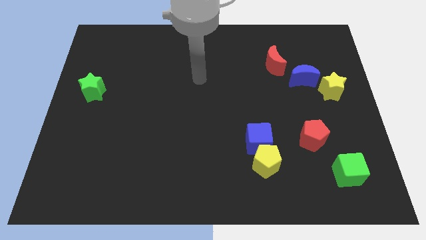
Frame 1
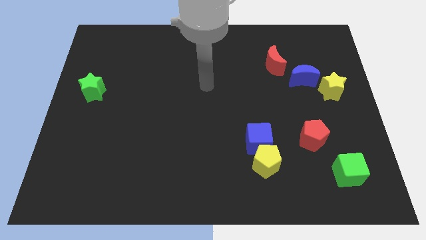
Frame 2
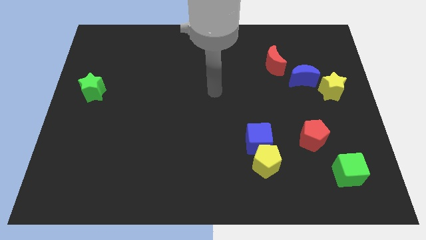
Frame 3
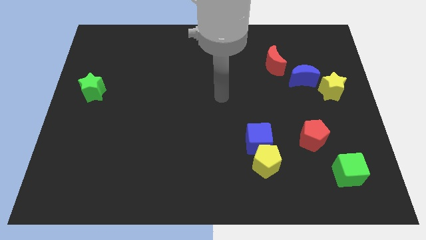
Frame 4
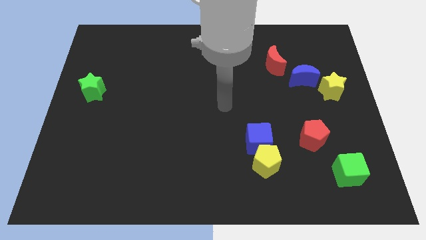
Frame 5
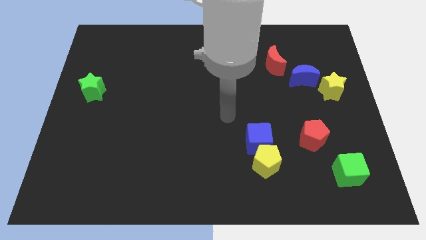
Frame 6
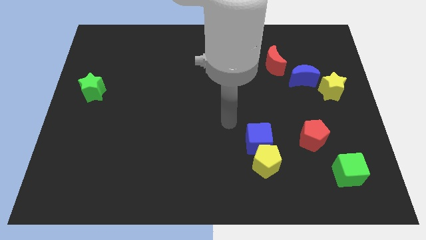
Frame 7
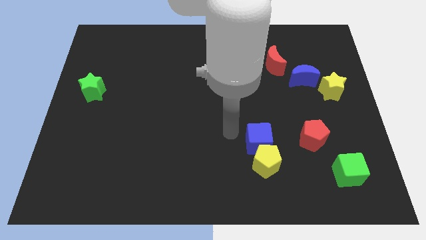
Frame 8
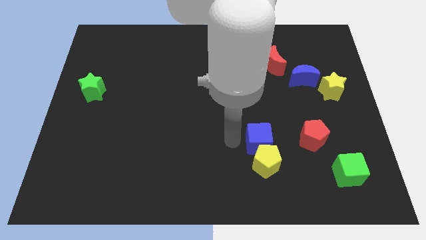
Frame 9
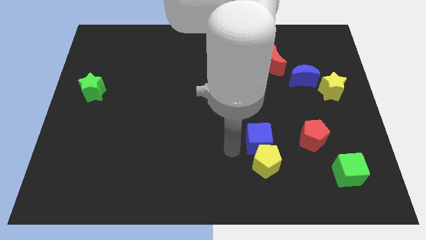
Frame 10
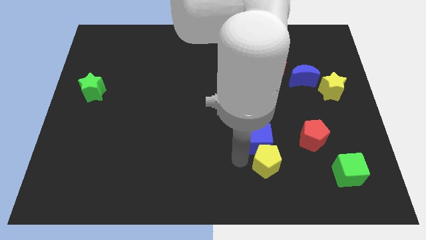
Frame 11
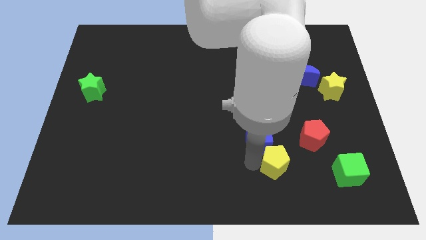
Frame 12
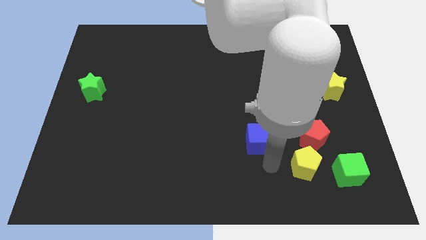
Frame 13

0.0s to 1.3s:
pull the blue cube apart from the yellow pentagon

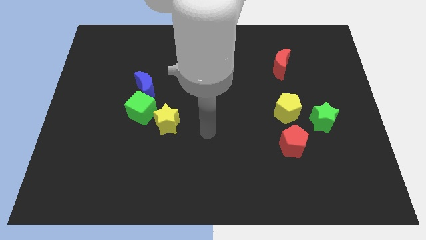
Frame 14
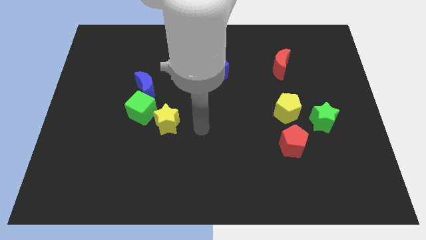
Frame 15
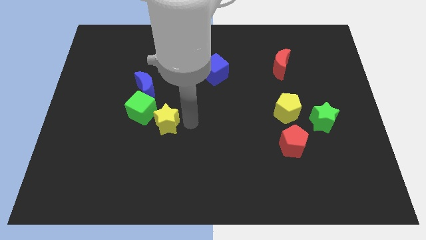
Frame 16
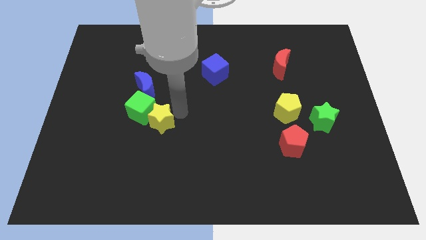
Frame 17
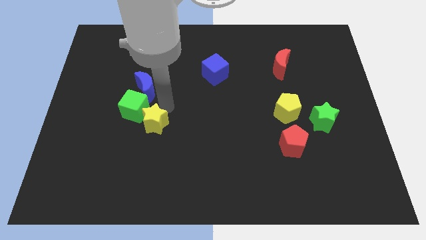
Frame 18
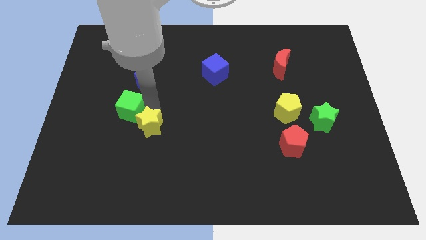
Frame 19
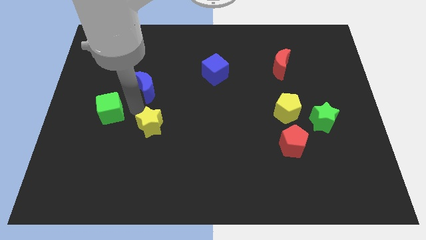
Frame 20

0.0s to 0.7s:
move the blue moon away from the green cube

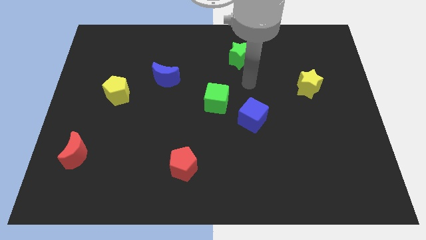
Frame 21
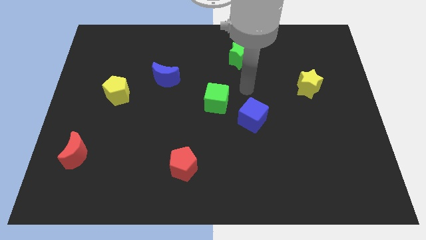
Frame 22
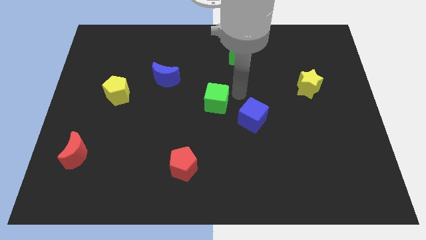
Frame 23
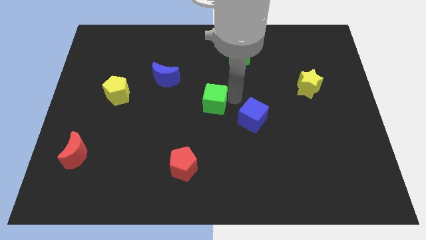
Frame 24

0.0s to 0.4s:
pull the blue cube apart from the green cube

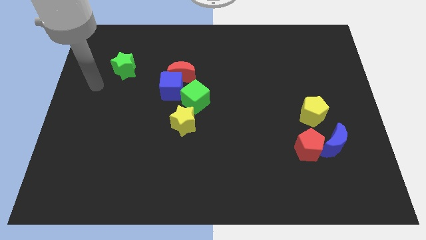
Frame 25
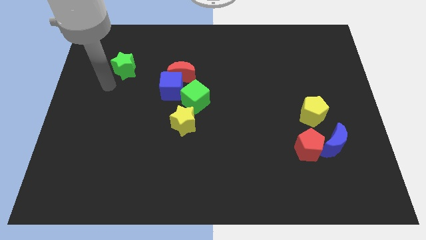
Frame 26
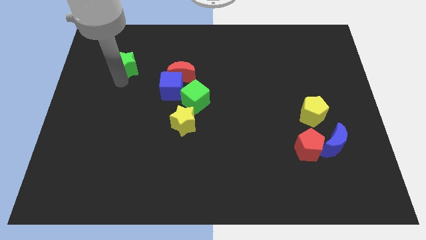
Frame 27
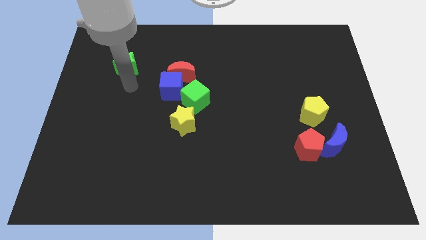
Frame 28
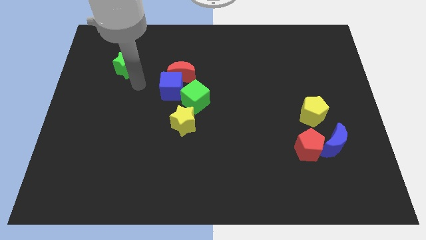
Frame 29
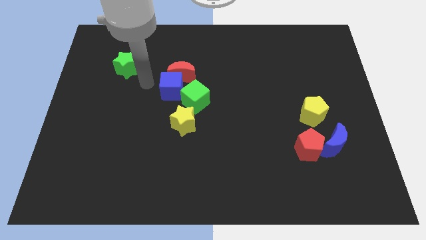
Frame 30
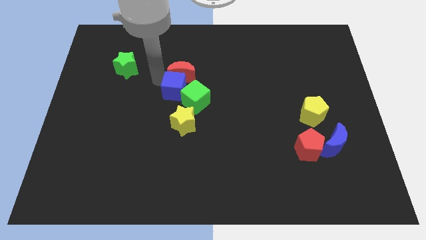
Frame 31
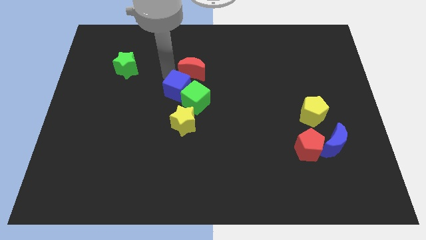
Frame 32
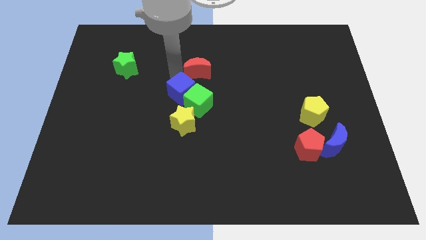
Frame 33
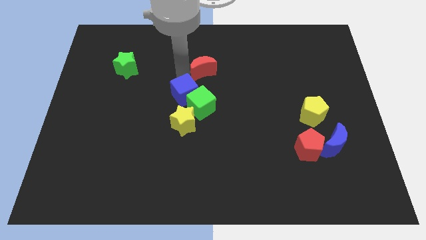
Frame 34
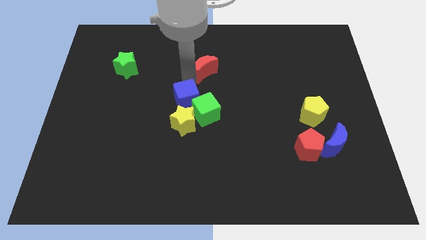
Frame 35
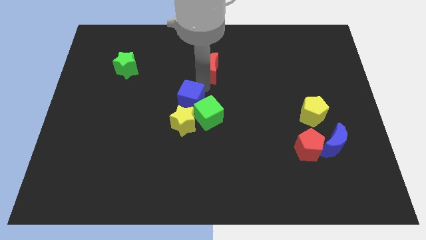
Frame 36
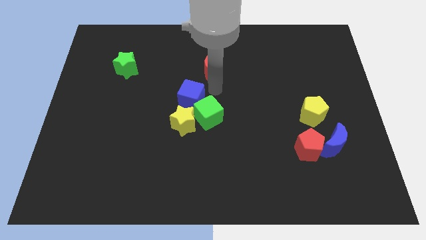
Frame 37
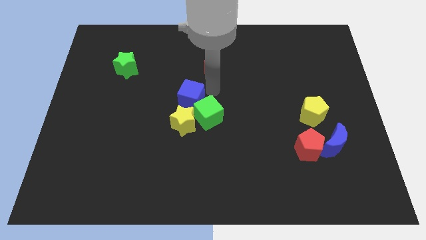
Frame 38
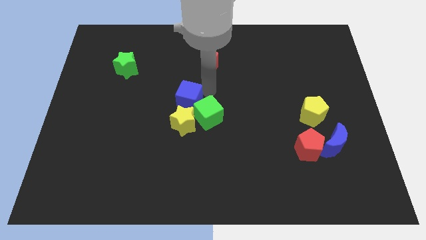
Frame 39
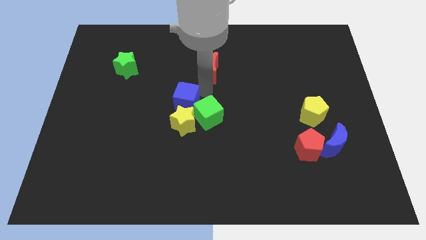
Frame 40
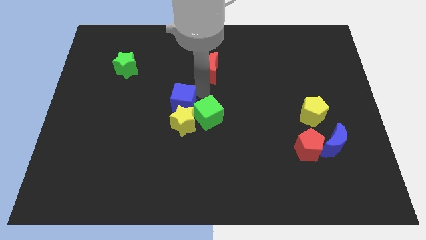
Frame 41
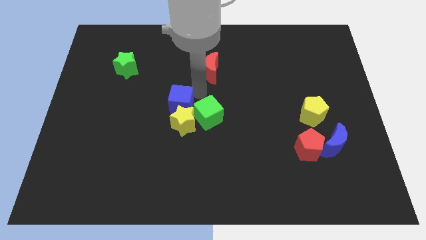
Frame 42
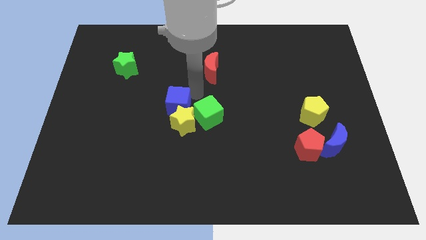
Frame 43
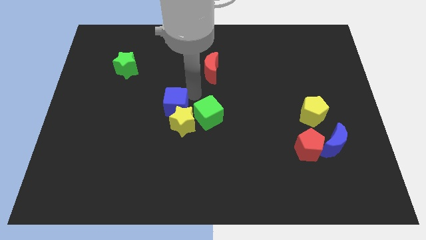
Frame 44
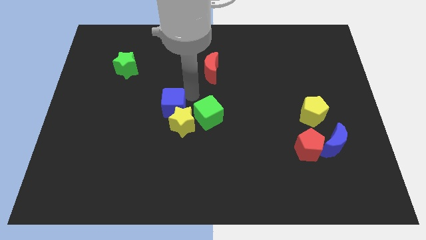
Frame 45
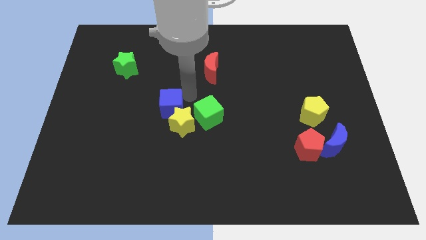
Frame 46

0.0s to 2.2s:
separate the blue cube from the red moon and green cube

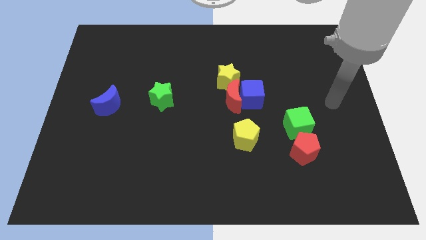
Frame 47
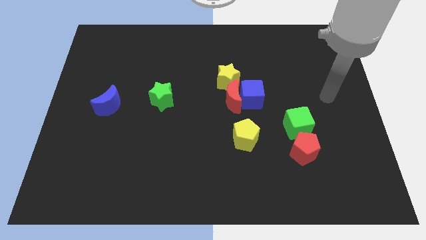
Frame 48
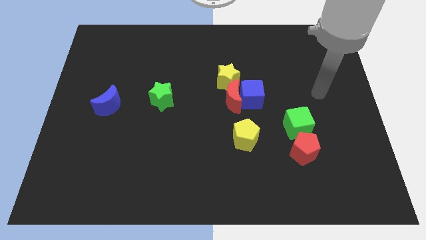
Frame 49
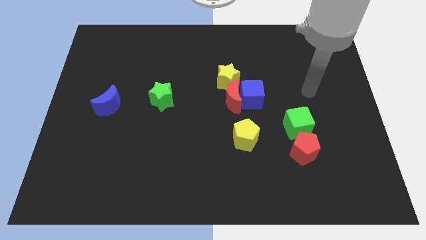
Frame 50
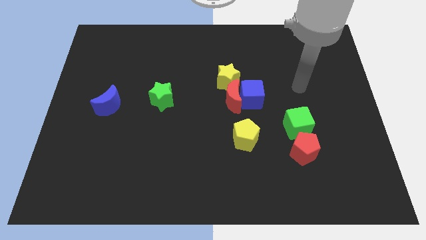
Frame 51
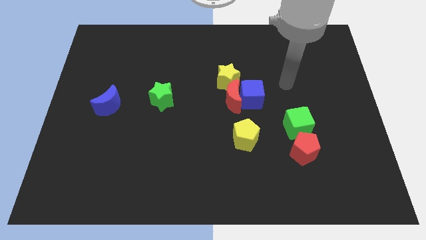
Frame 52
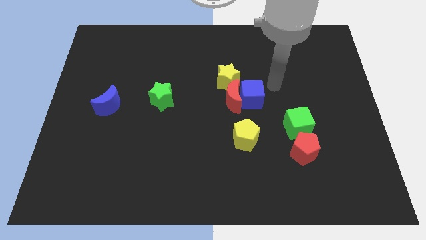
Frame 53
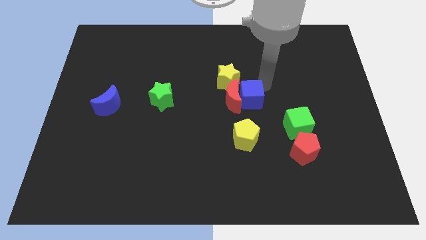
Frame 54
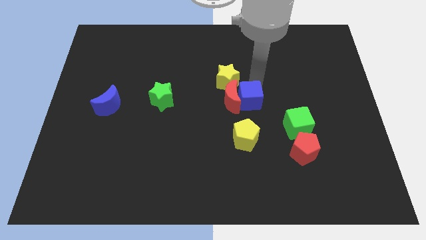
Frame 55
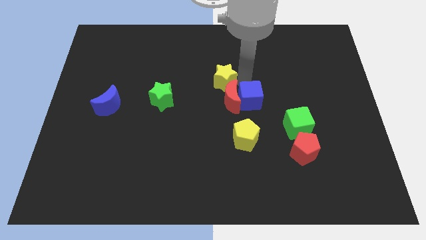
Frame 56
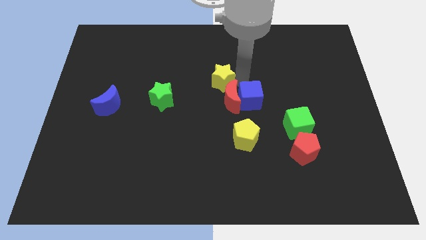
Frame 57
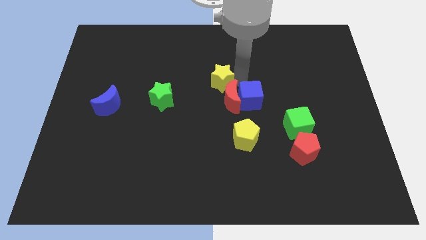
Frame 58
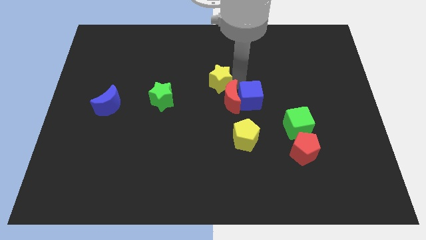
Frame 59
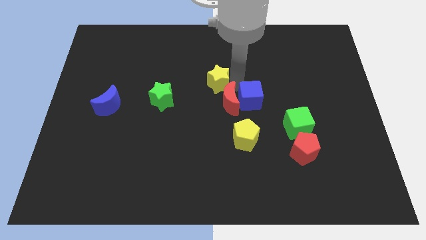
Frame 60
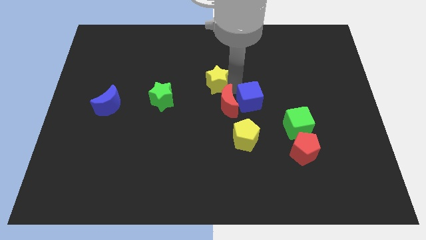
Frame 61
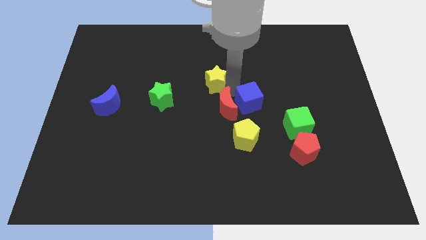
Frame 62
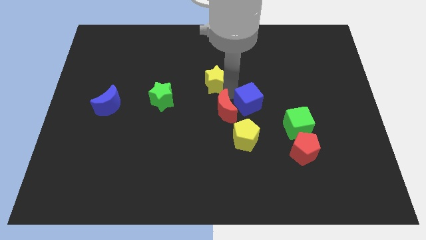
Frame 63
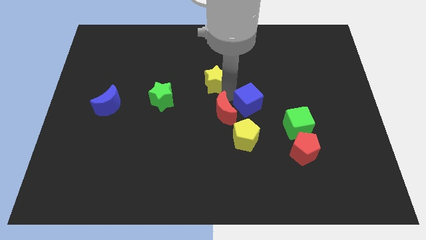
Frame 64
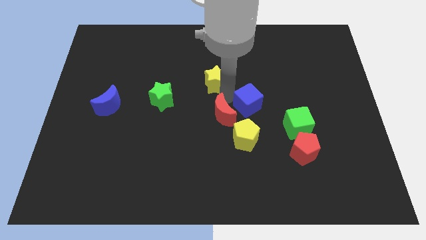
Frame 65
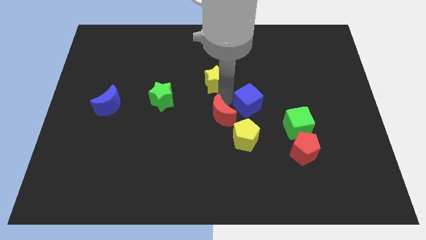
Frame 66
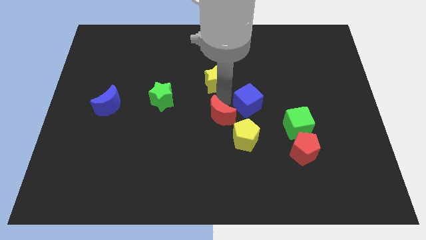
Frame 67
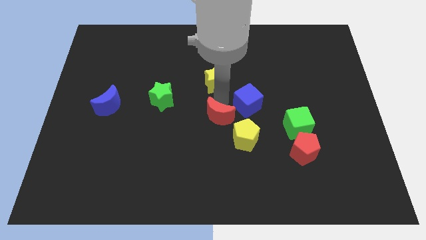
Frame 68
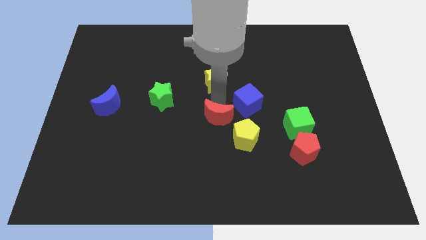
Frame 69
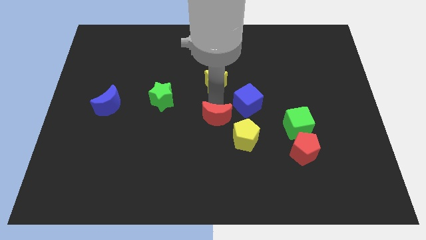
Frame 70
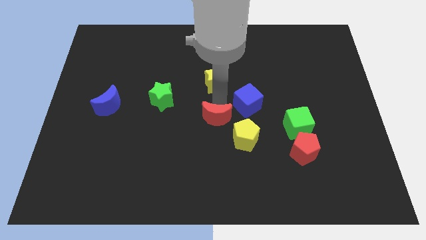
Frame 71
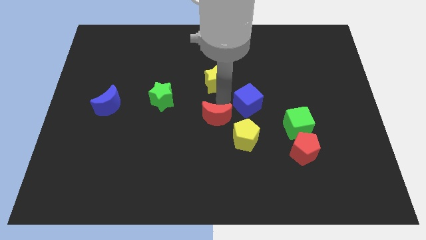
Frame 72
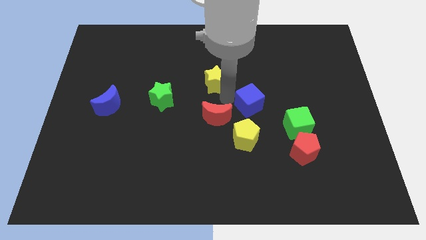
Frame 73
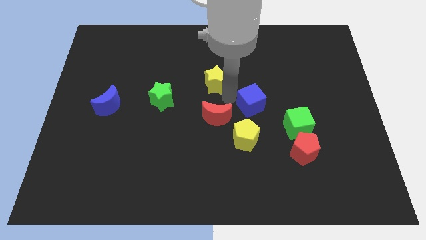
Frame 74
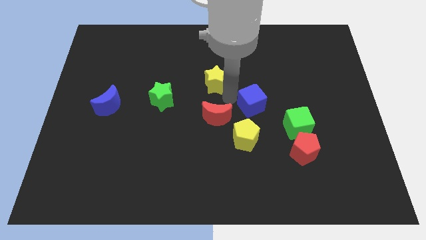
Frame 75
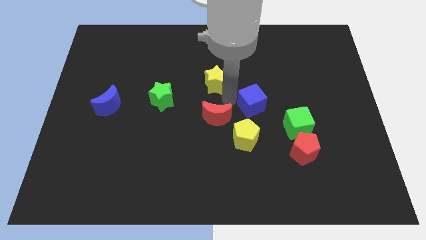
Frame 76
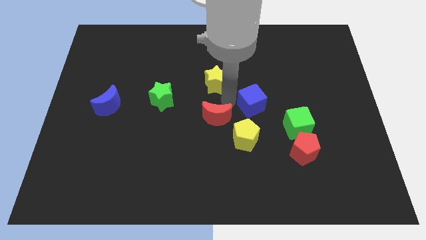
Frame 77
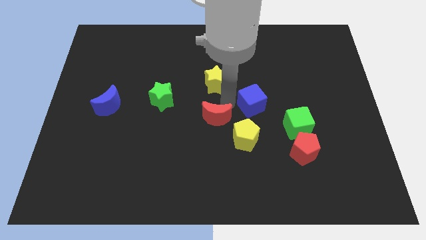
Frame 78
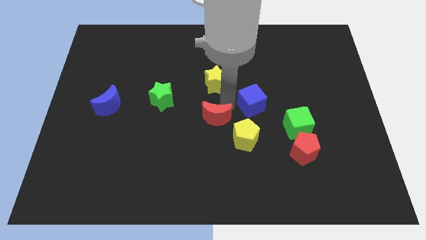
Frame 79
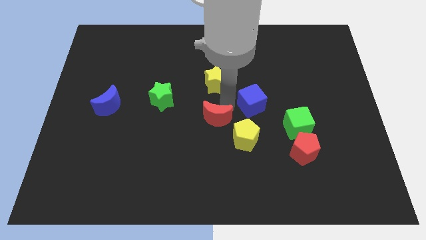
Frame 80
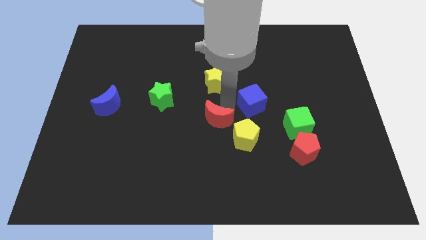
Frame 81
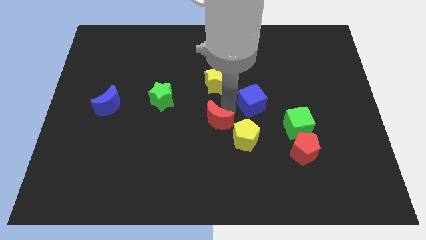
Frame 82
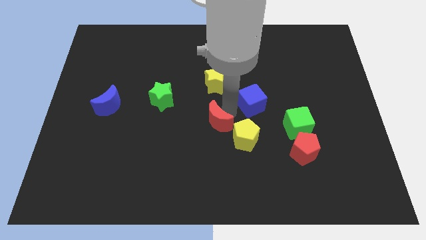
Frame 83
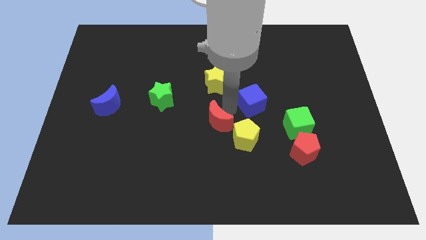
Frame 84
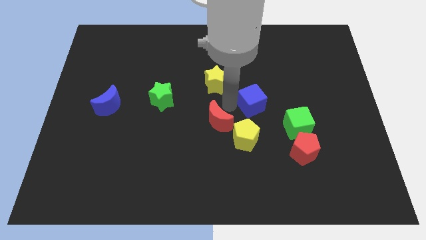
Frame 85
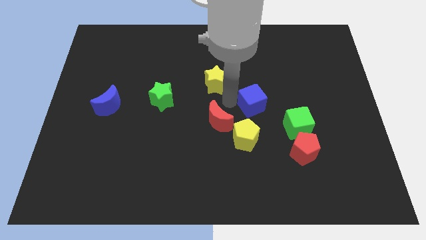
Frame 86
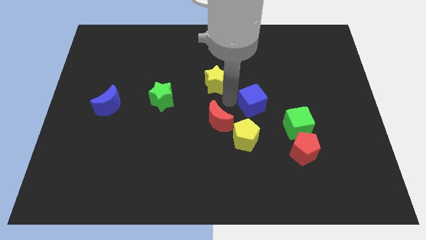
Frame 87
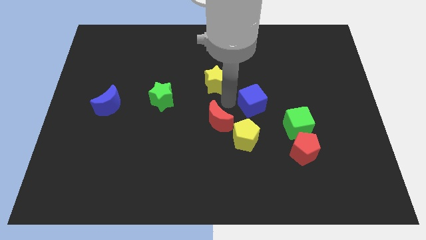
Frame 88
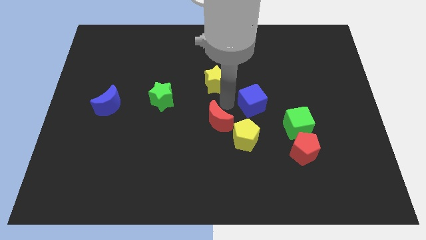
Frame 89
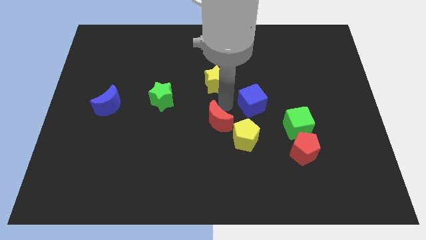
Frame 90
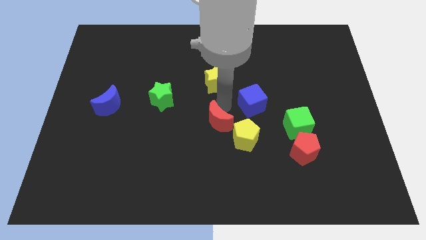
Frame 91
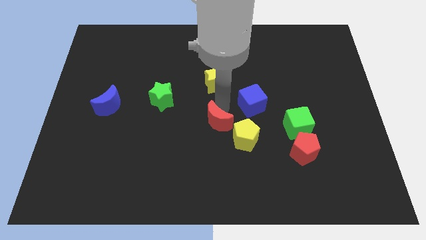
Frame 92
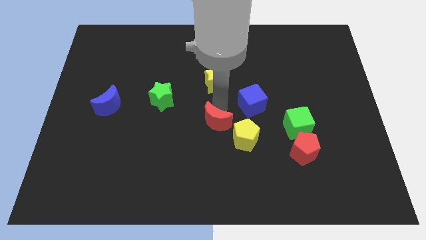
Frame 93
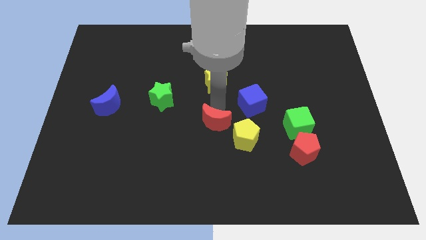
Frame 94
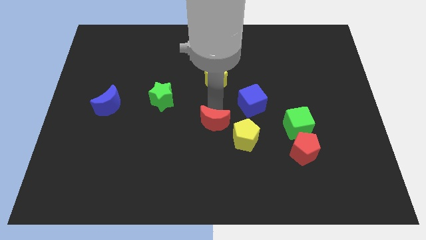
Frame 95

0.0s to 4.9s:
move the red moon away from the blue cube and yellow star
